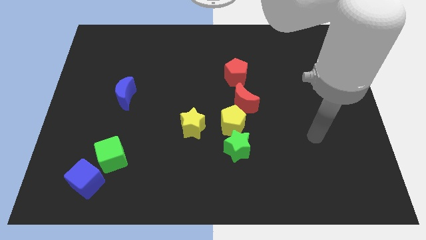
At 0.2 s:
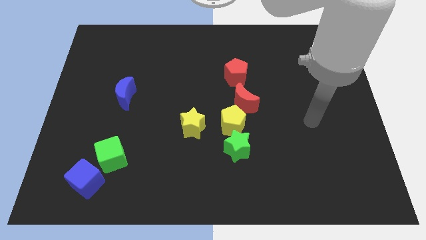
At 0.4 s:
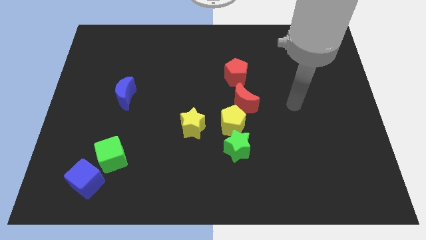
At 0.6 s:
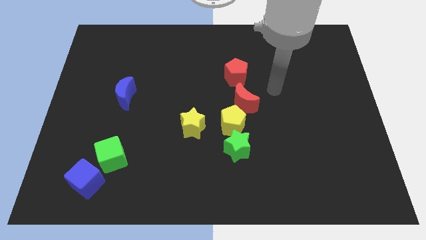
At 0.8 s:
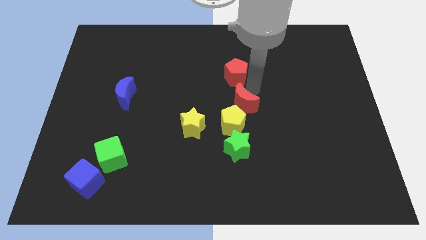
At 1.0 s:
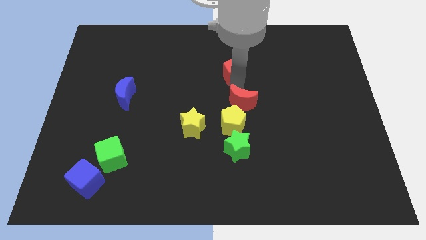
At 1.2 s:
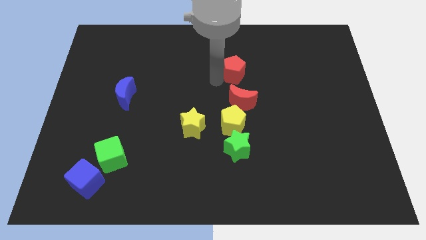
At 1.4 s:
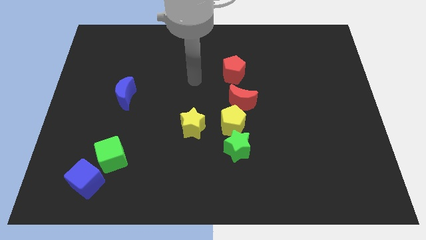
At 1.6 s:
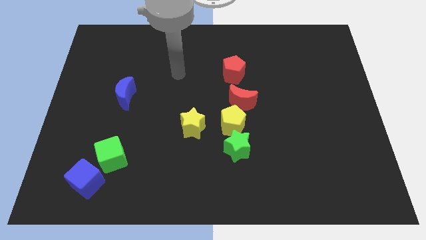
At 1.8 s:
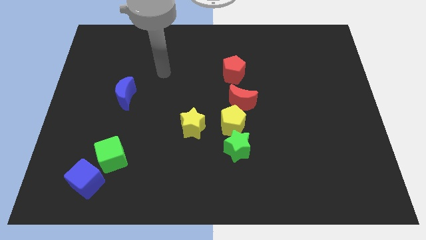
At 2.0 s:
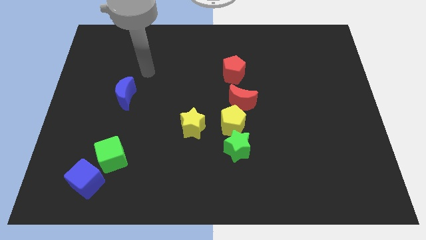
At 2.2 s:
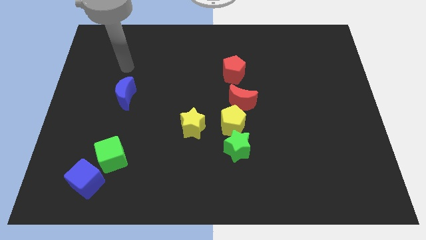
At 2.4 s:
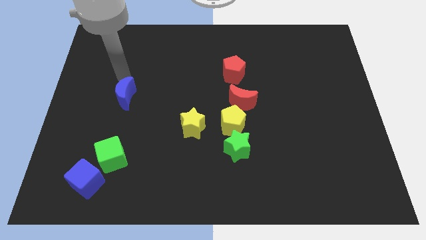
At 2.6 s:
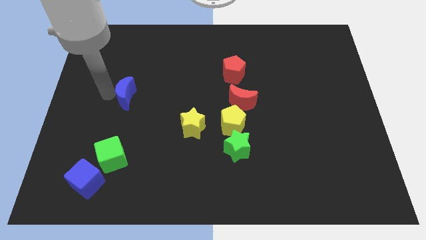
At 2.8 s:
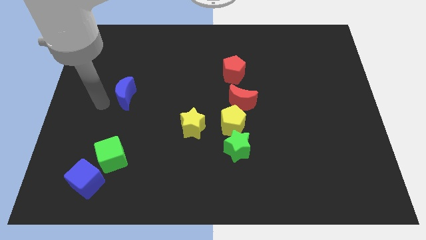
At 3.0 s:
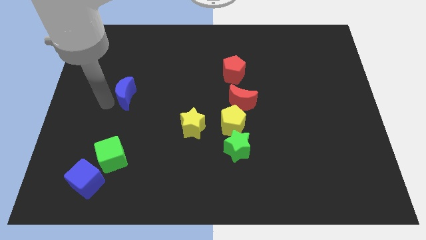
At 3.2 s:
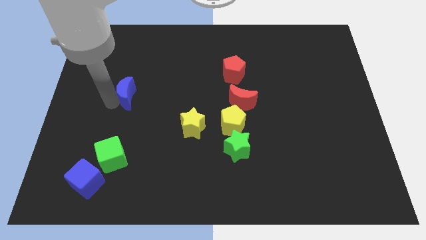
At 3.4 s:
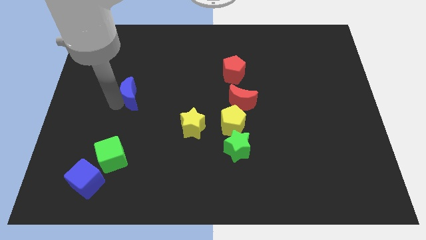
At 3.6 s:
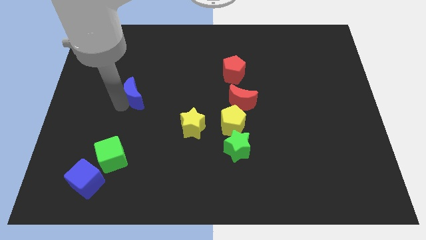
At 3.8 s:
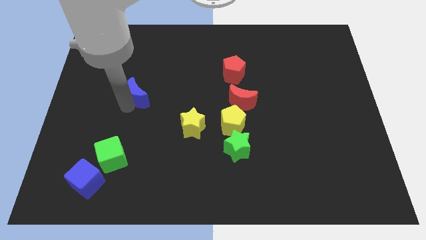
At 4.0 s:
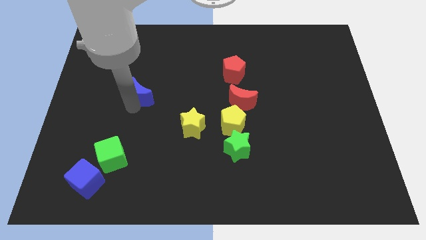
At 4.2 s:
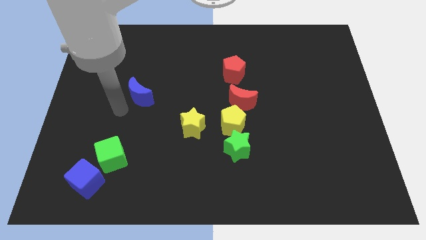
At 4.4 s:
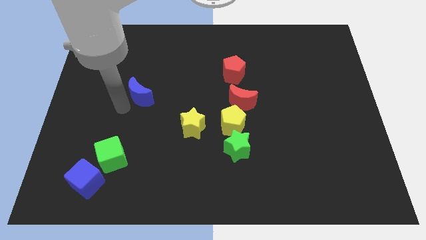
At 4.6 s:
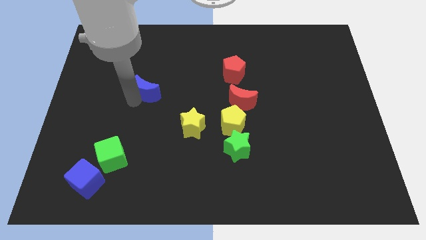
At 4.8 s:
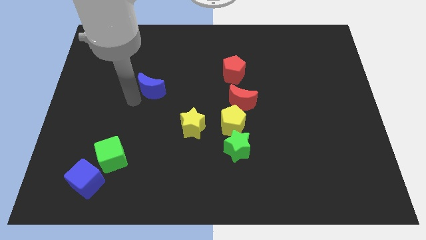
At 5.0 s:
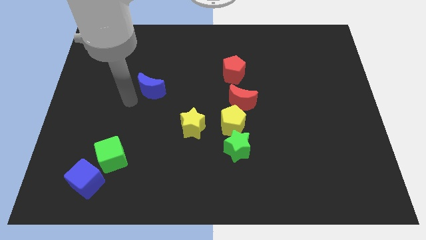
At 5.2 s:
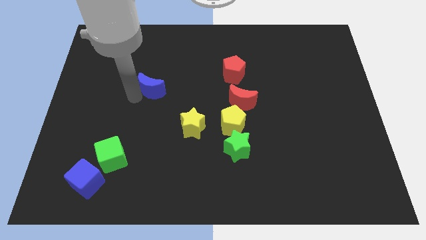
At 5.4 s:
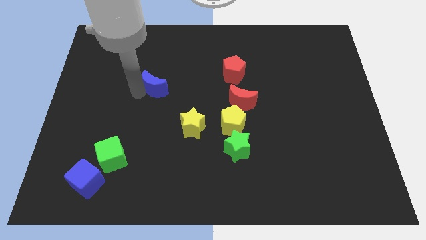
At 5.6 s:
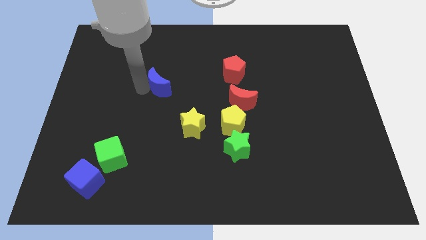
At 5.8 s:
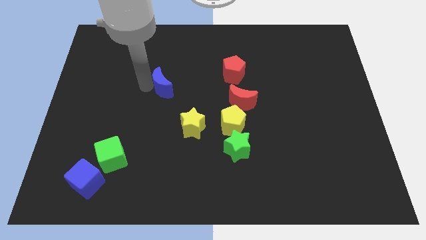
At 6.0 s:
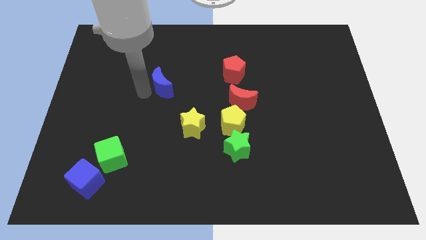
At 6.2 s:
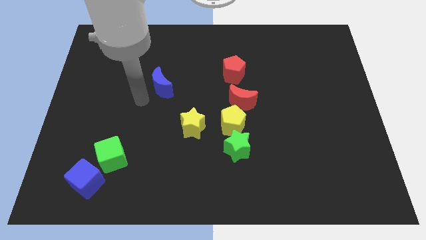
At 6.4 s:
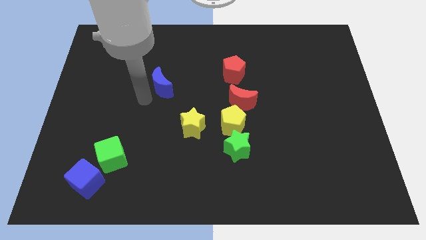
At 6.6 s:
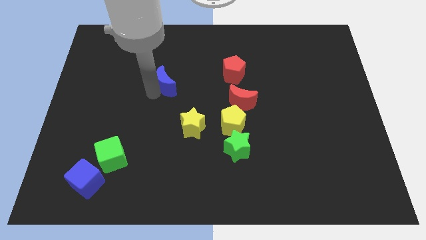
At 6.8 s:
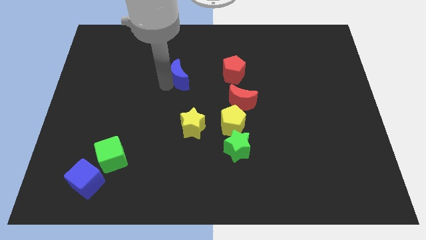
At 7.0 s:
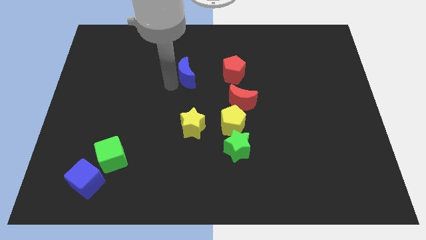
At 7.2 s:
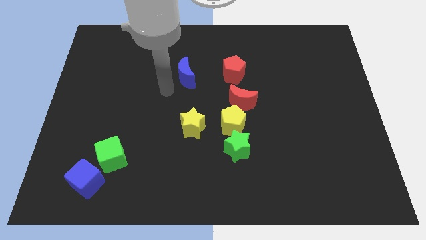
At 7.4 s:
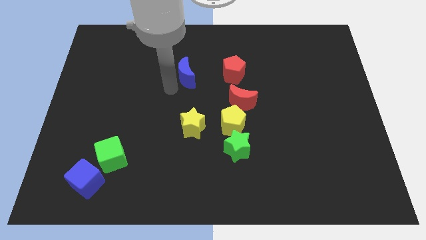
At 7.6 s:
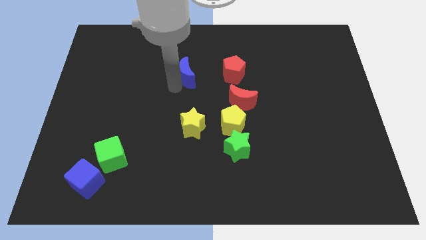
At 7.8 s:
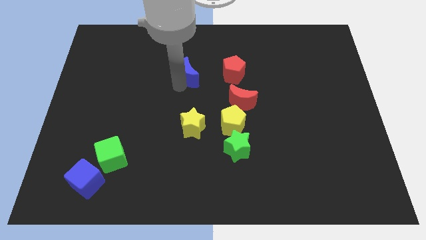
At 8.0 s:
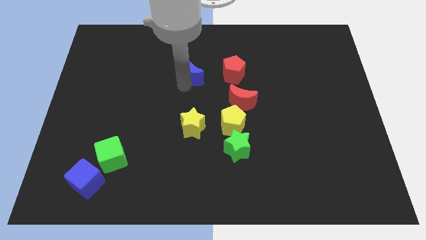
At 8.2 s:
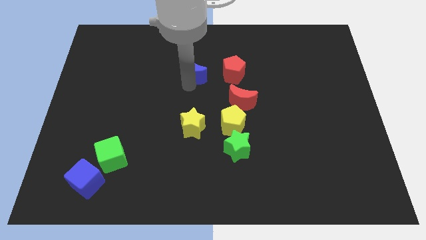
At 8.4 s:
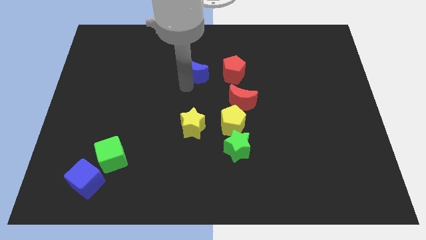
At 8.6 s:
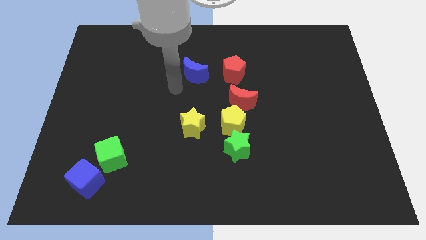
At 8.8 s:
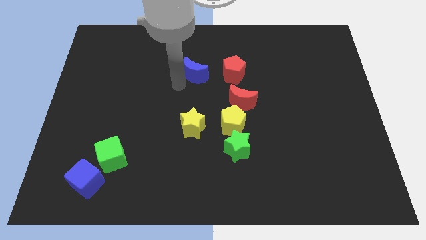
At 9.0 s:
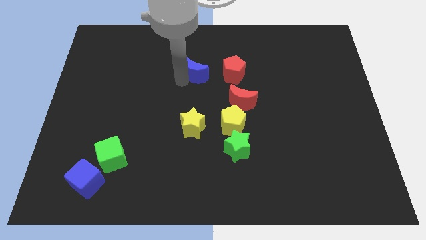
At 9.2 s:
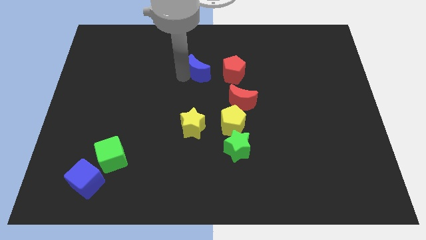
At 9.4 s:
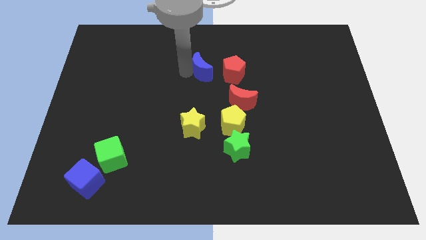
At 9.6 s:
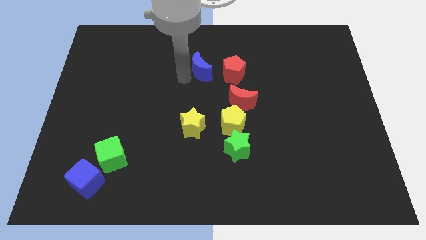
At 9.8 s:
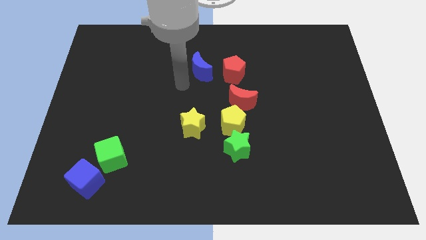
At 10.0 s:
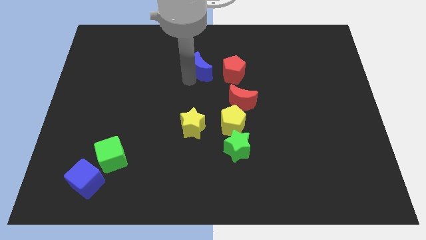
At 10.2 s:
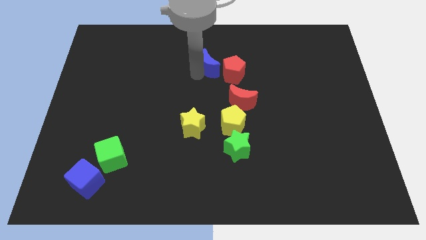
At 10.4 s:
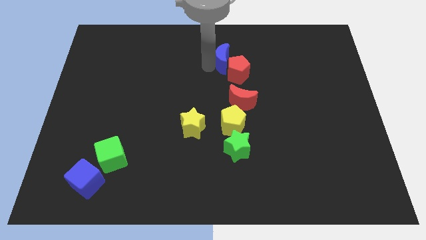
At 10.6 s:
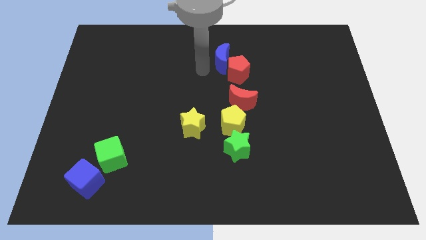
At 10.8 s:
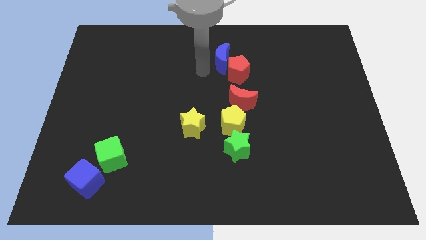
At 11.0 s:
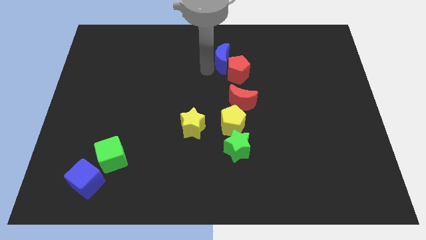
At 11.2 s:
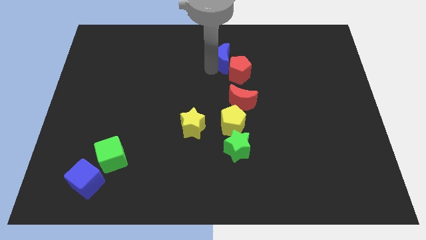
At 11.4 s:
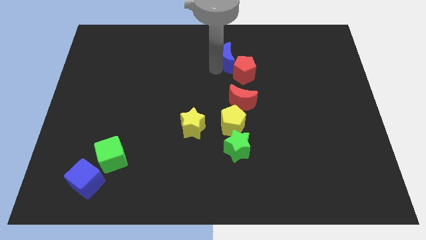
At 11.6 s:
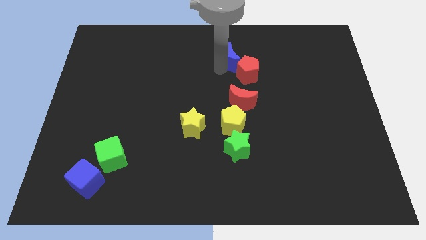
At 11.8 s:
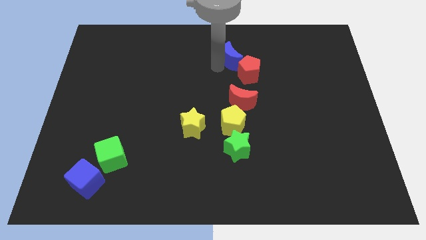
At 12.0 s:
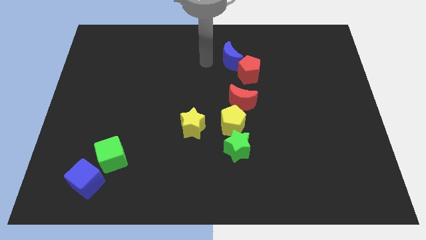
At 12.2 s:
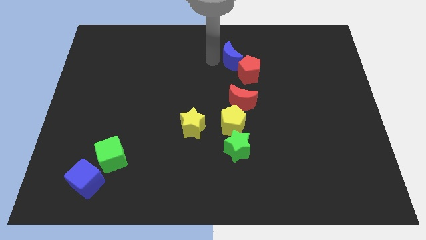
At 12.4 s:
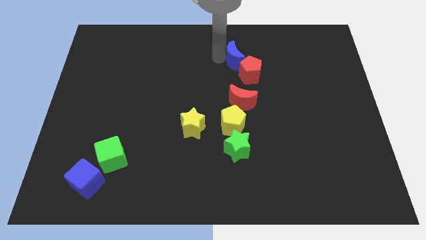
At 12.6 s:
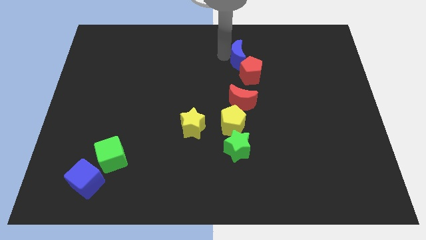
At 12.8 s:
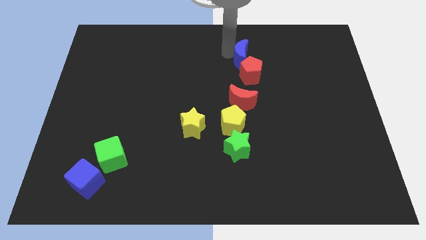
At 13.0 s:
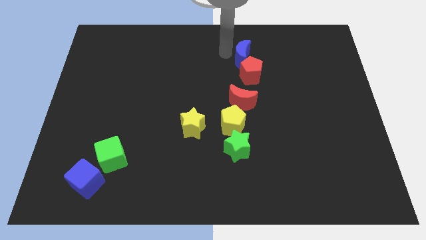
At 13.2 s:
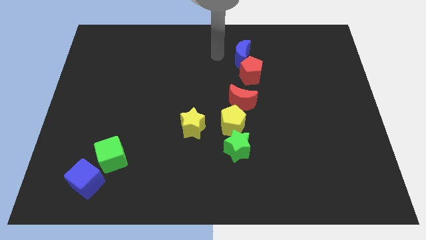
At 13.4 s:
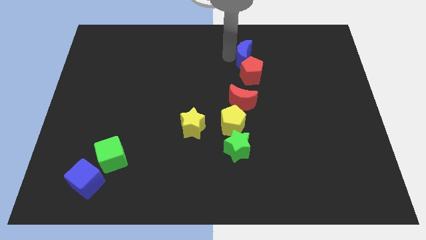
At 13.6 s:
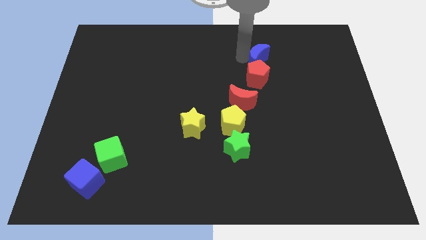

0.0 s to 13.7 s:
move the blue moon diagonally up and to the right of the red pentagon

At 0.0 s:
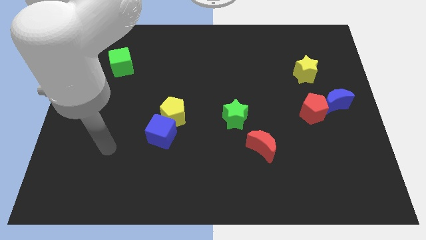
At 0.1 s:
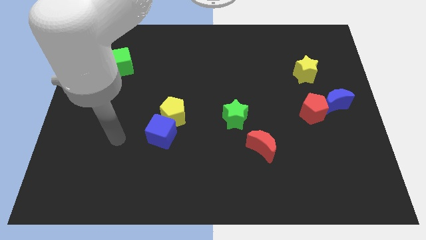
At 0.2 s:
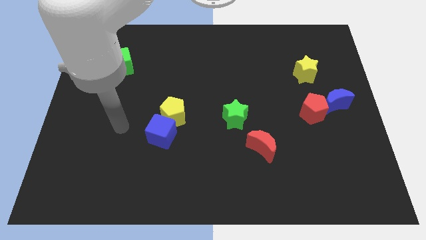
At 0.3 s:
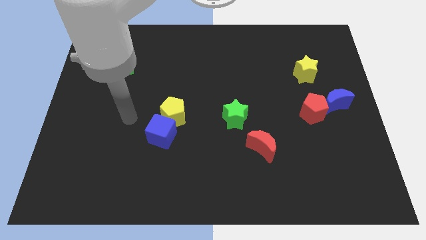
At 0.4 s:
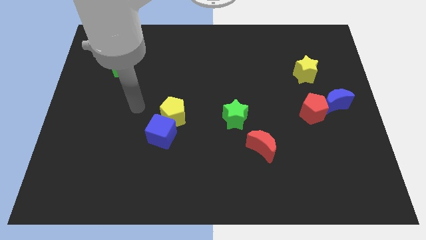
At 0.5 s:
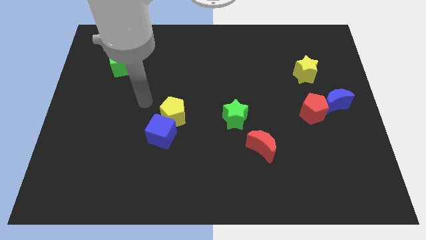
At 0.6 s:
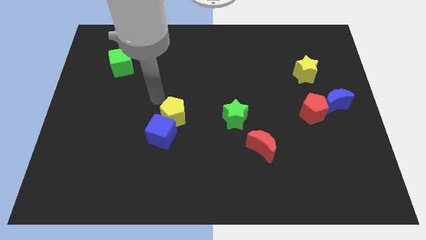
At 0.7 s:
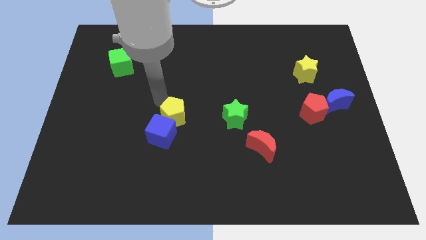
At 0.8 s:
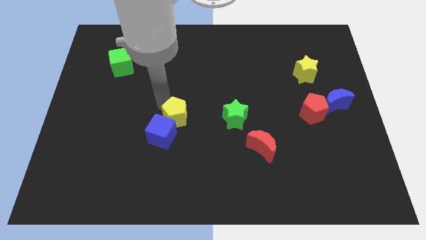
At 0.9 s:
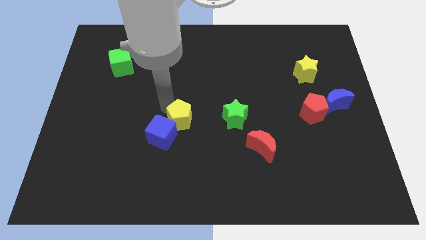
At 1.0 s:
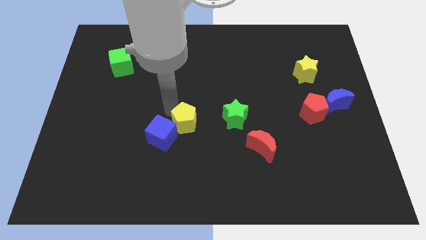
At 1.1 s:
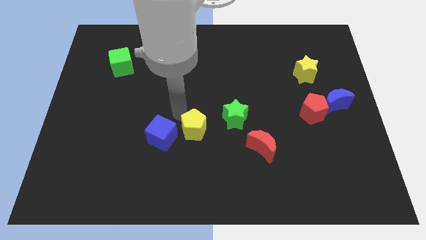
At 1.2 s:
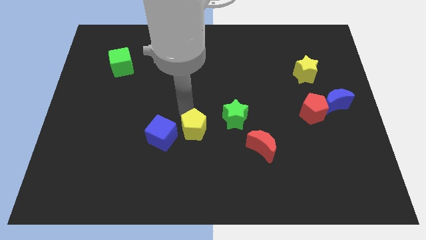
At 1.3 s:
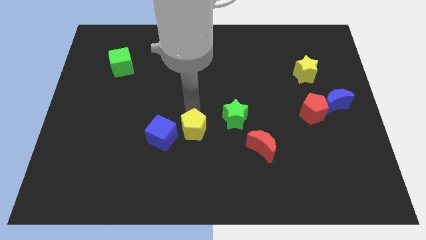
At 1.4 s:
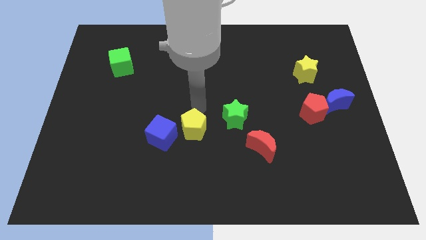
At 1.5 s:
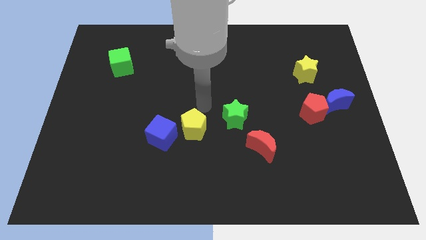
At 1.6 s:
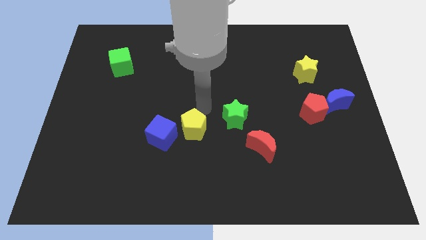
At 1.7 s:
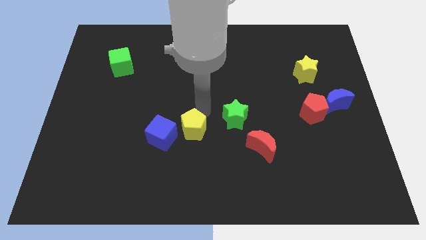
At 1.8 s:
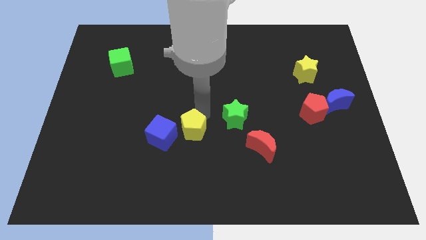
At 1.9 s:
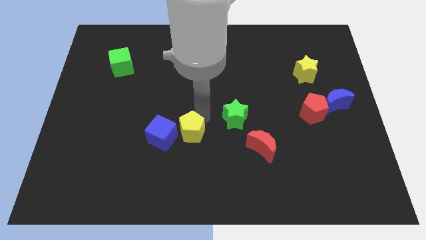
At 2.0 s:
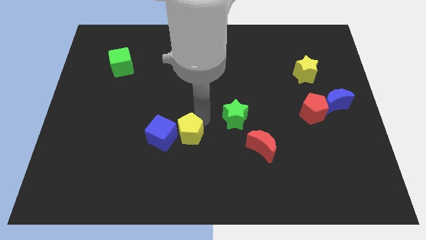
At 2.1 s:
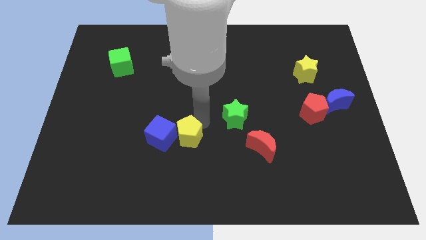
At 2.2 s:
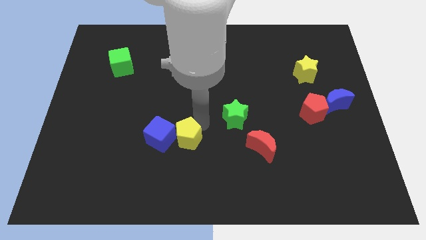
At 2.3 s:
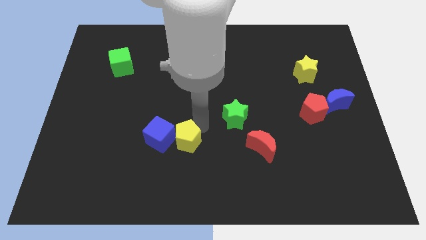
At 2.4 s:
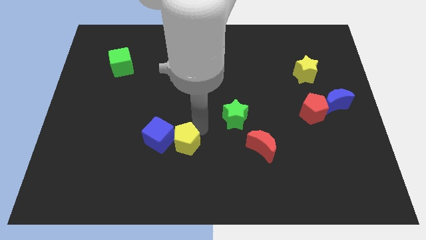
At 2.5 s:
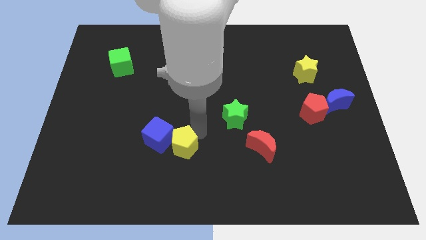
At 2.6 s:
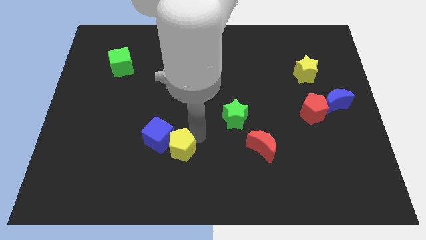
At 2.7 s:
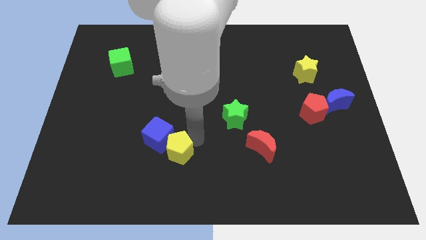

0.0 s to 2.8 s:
move the yellow pentagon to the bottom side of the blue cube
